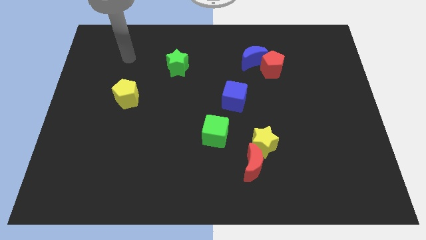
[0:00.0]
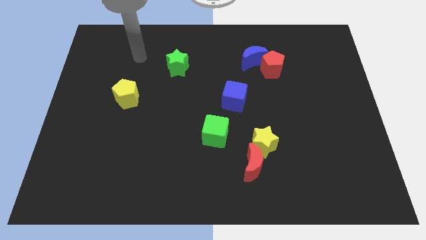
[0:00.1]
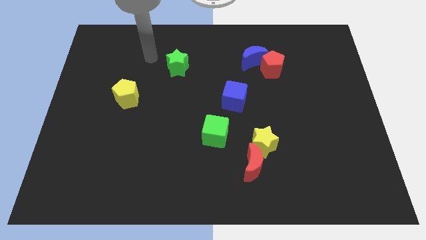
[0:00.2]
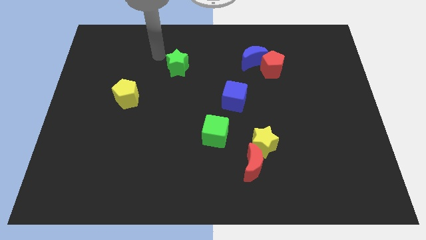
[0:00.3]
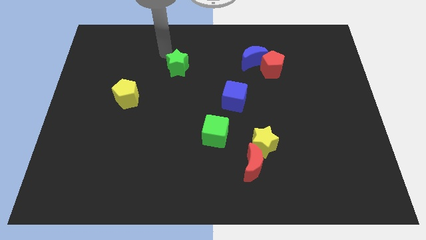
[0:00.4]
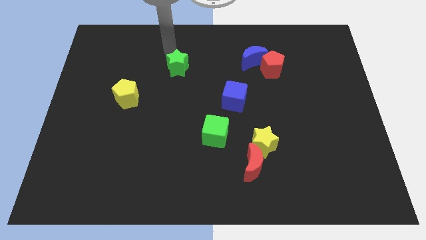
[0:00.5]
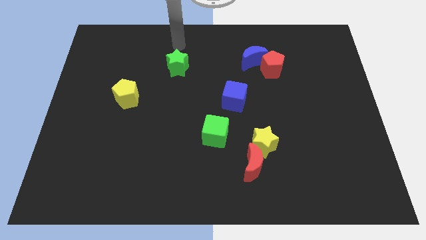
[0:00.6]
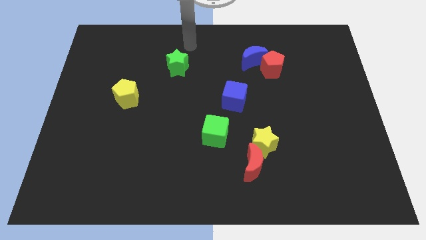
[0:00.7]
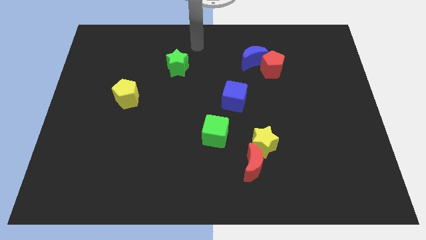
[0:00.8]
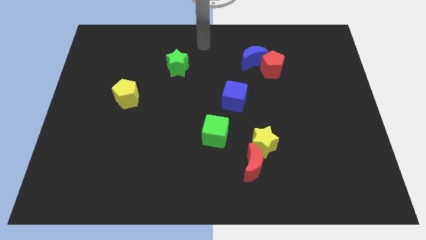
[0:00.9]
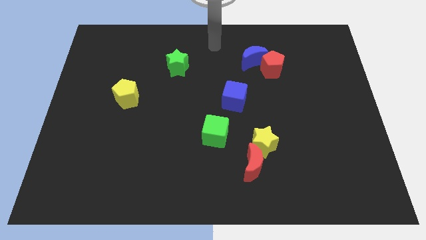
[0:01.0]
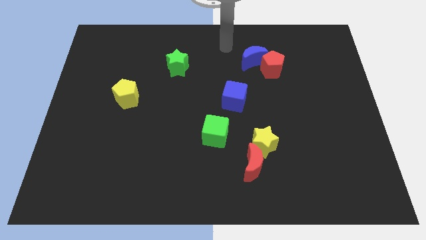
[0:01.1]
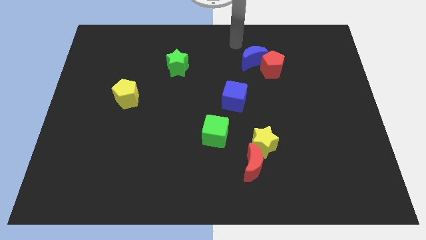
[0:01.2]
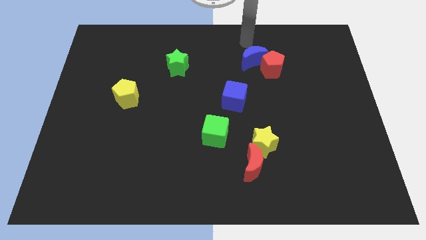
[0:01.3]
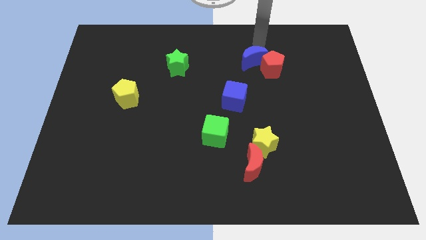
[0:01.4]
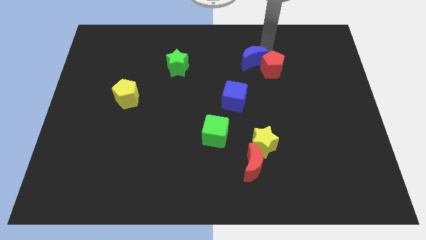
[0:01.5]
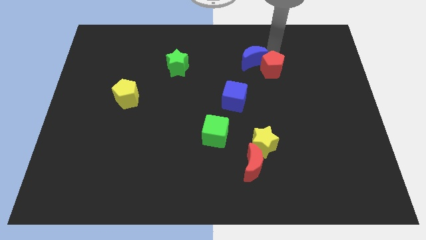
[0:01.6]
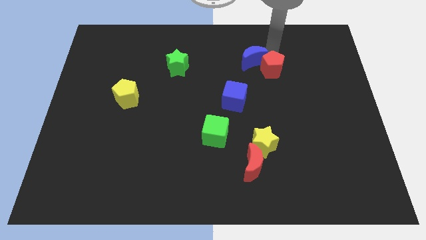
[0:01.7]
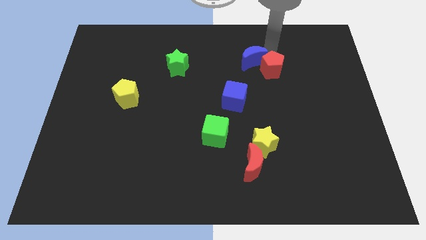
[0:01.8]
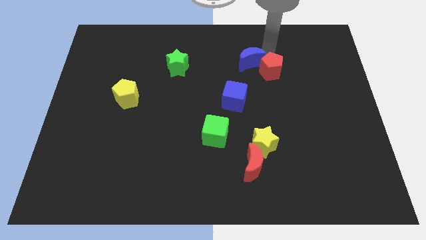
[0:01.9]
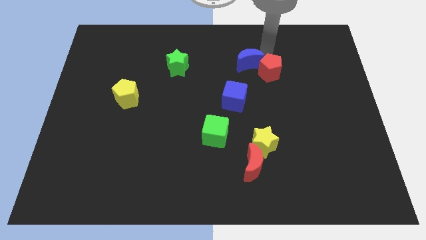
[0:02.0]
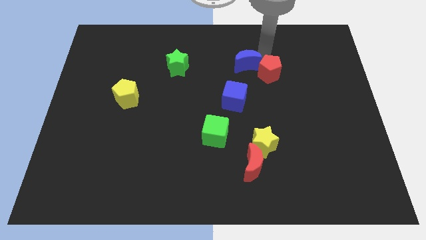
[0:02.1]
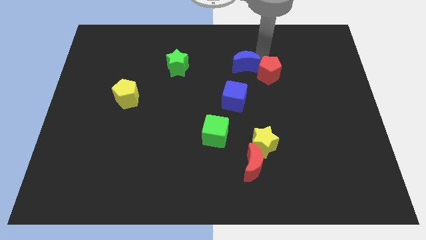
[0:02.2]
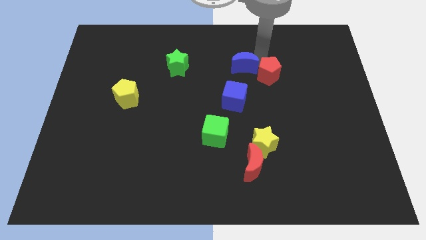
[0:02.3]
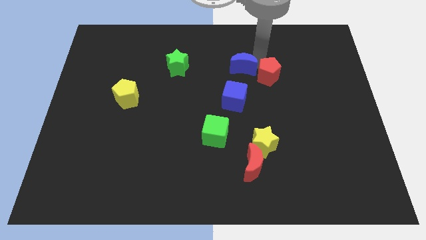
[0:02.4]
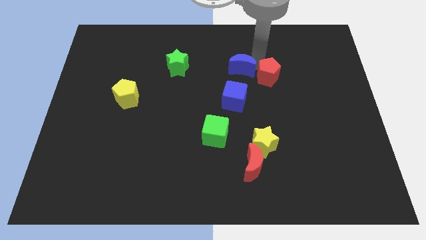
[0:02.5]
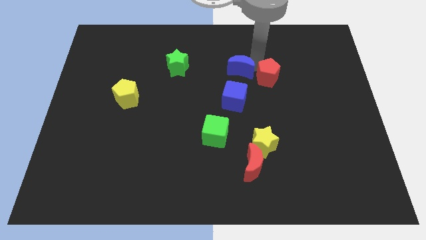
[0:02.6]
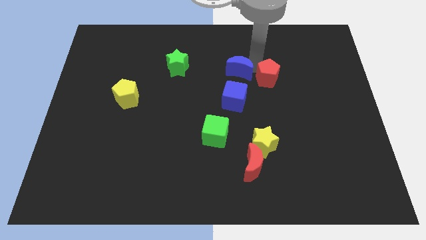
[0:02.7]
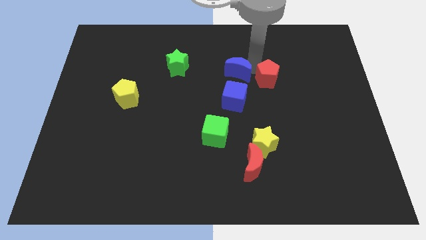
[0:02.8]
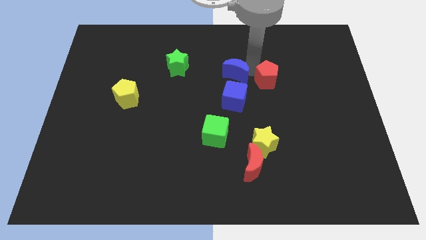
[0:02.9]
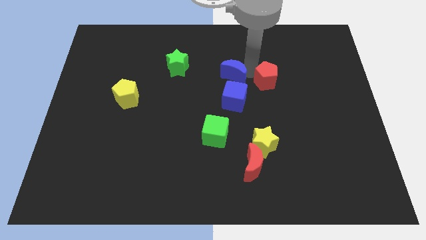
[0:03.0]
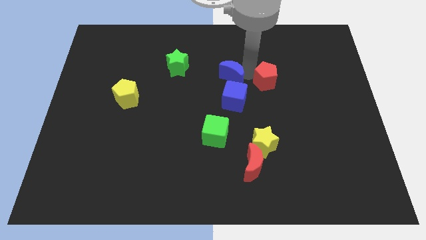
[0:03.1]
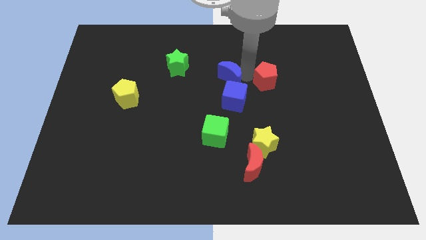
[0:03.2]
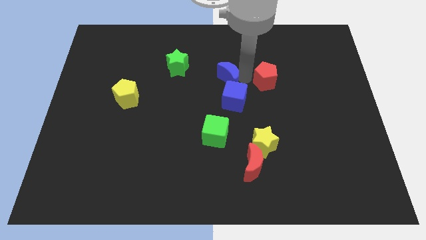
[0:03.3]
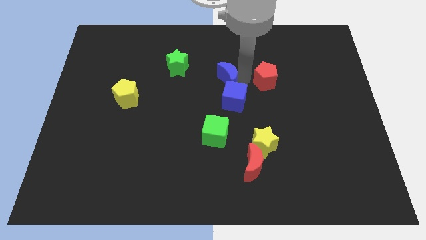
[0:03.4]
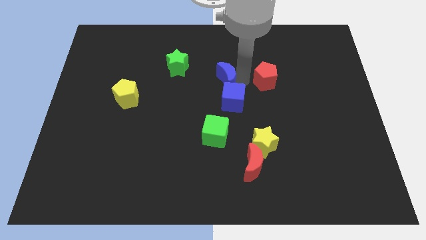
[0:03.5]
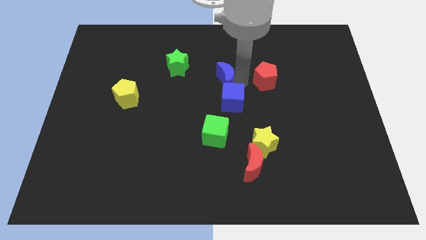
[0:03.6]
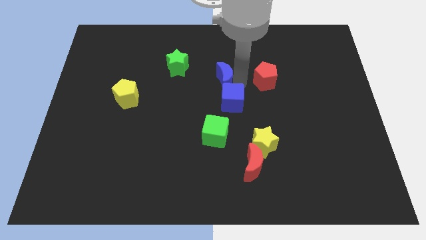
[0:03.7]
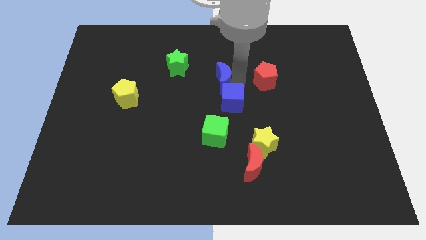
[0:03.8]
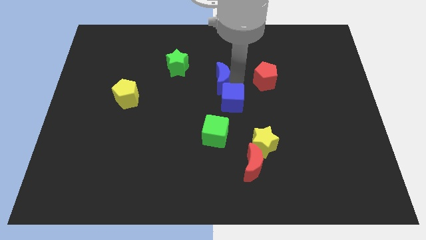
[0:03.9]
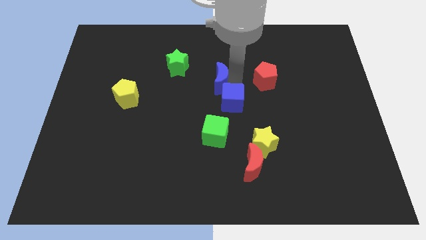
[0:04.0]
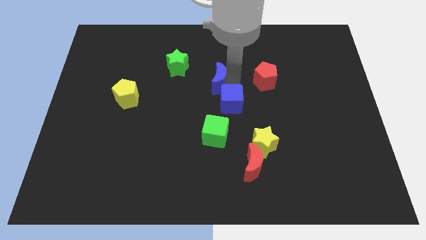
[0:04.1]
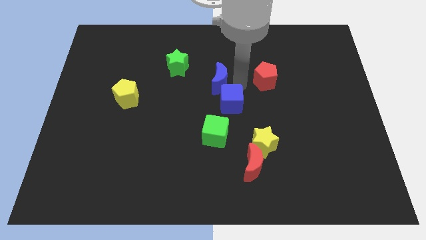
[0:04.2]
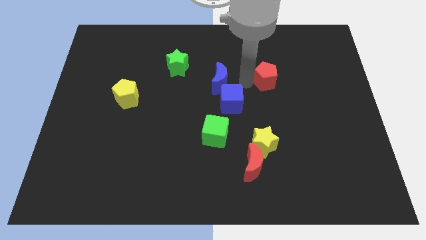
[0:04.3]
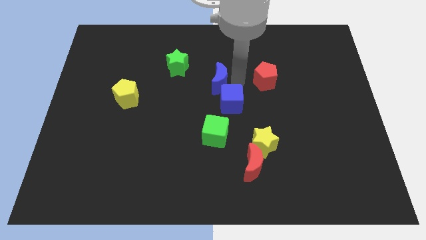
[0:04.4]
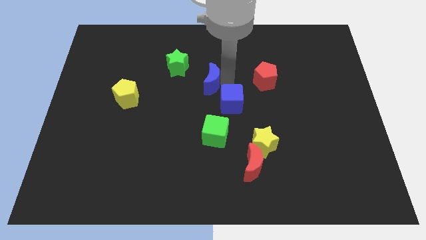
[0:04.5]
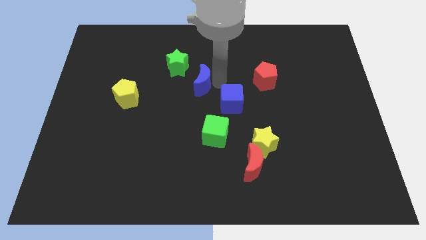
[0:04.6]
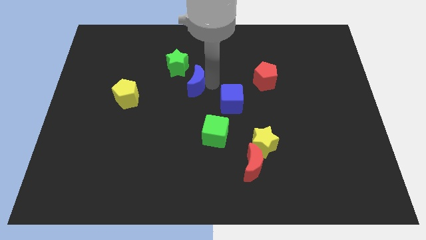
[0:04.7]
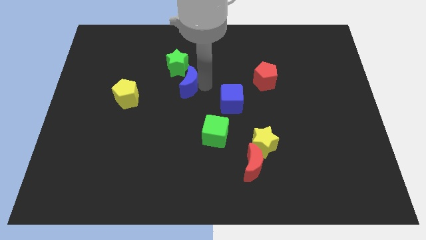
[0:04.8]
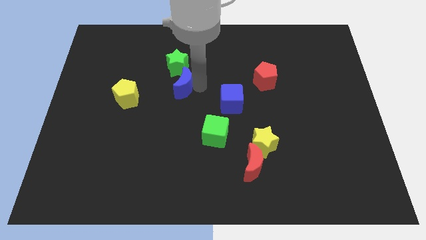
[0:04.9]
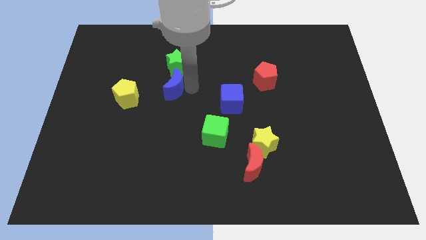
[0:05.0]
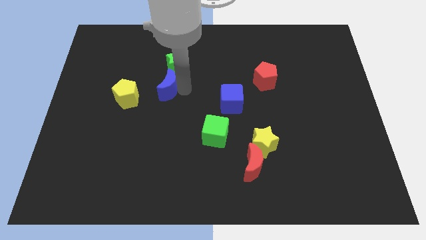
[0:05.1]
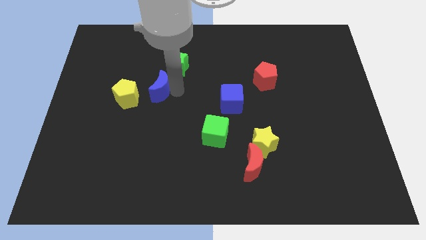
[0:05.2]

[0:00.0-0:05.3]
move the blue moon to the top right of the yellow pentagon

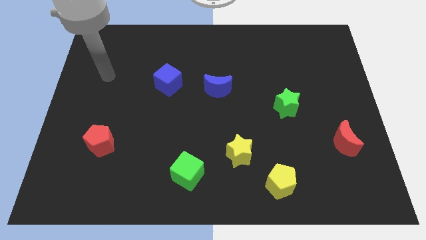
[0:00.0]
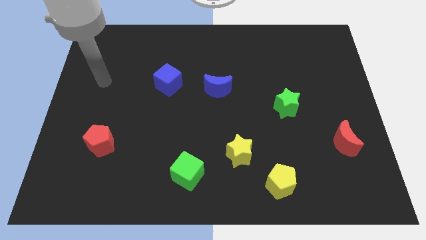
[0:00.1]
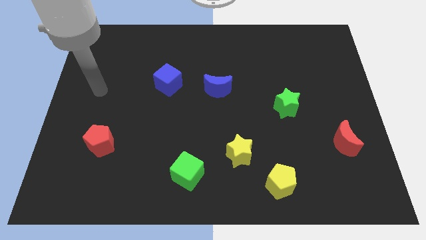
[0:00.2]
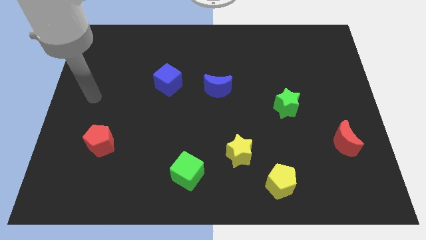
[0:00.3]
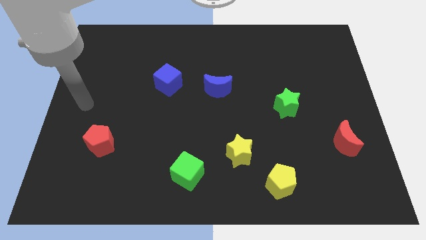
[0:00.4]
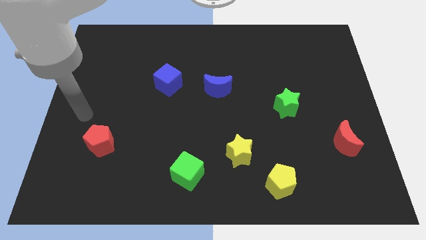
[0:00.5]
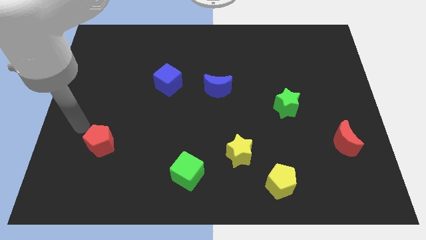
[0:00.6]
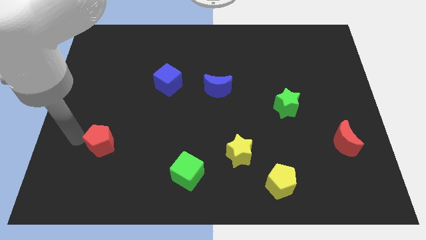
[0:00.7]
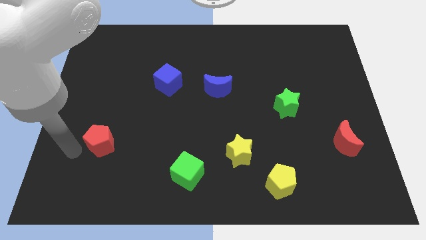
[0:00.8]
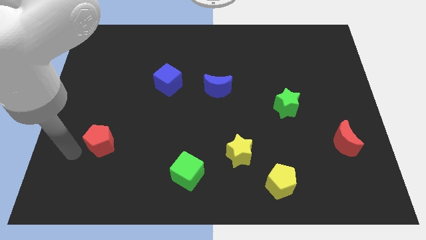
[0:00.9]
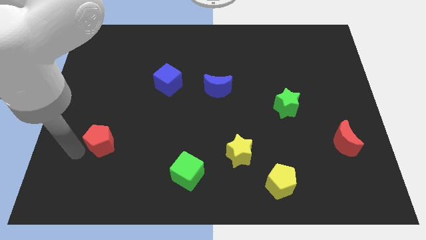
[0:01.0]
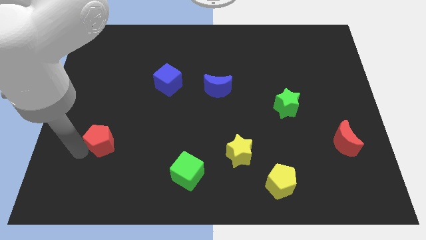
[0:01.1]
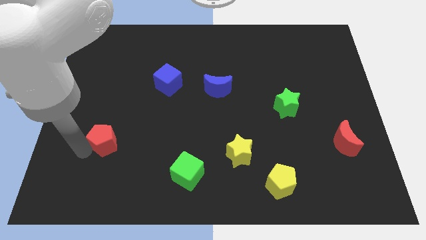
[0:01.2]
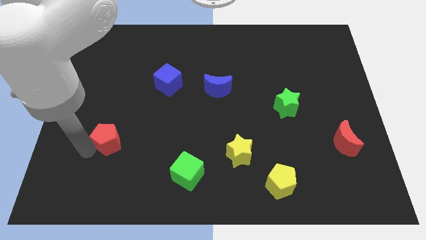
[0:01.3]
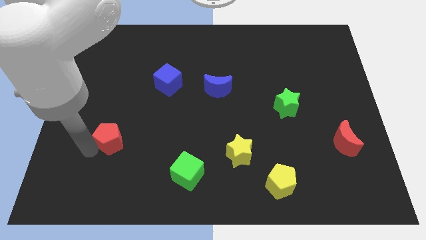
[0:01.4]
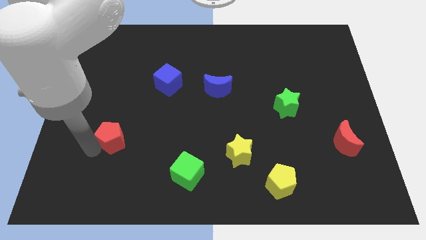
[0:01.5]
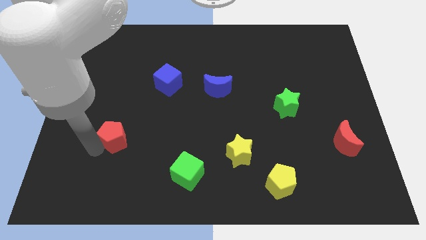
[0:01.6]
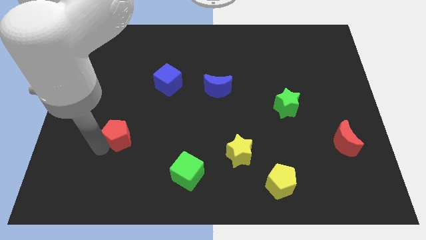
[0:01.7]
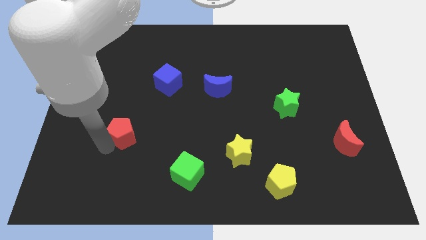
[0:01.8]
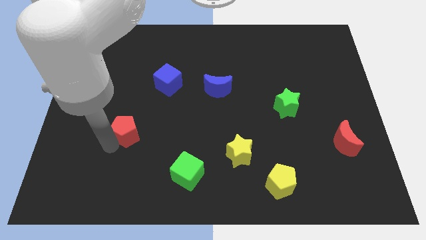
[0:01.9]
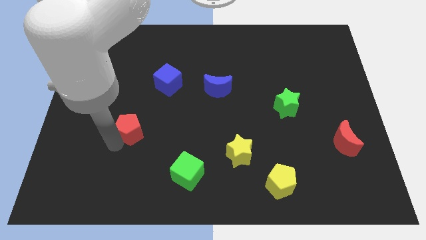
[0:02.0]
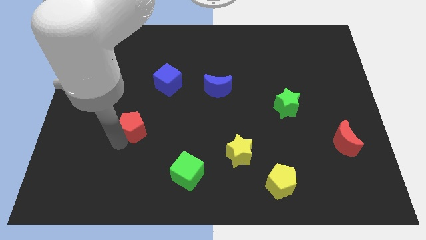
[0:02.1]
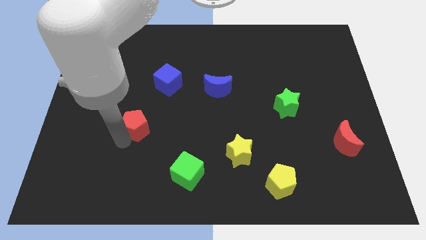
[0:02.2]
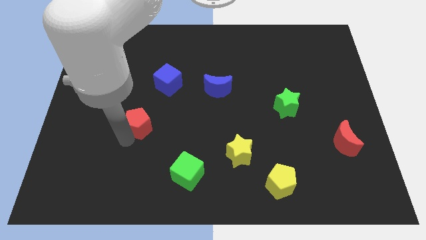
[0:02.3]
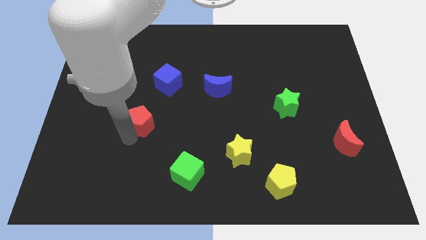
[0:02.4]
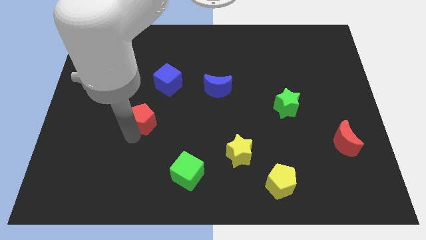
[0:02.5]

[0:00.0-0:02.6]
put the red pentagon to the bottom of the blue cube
